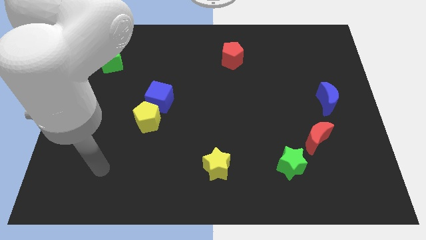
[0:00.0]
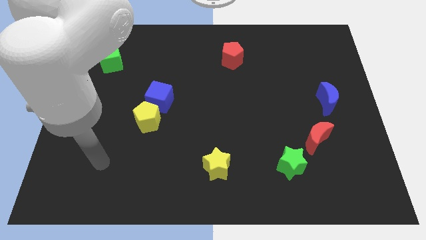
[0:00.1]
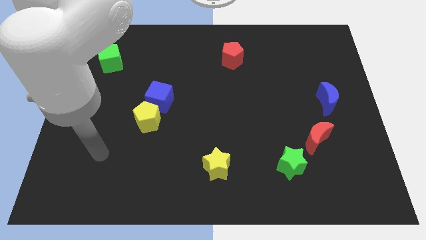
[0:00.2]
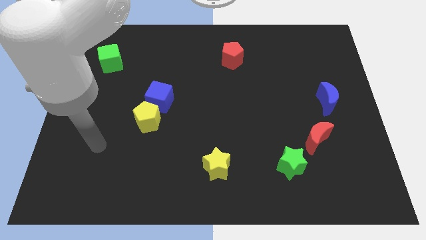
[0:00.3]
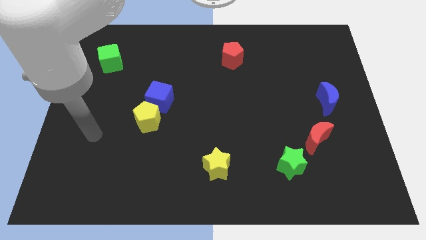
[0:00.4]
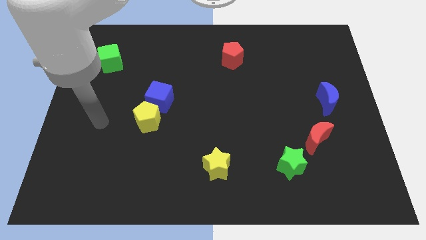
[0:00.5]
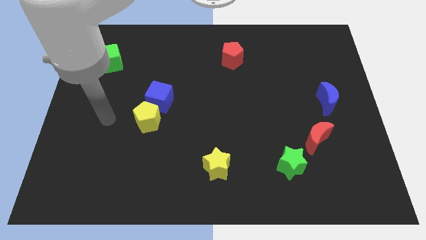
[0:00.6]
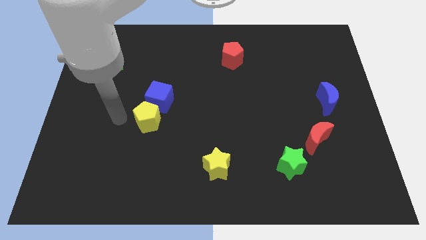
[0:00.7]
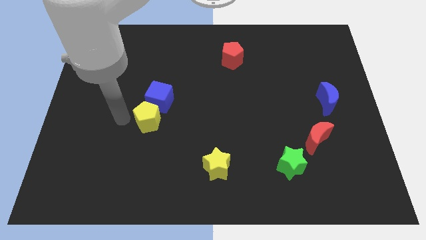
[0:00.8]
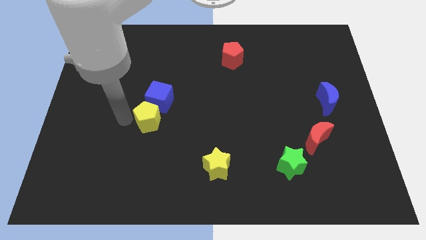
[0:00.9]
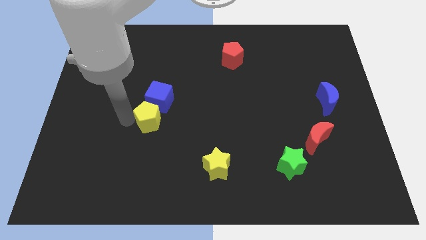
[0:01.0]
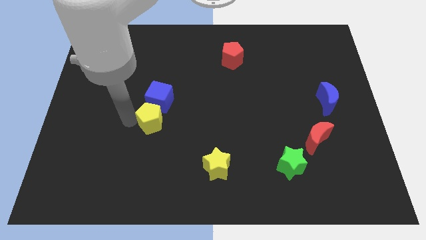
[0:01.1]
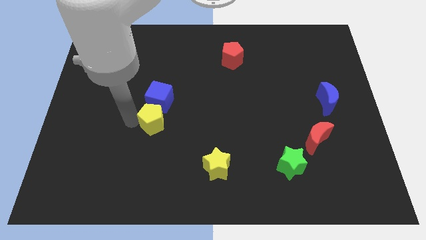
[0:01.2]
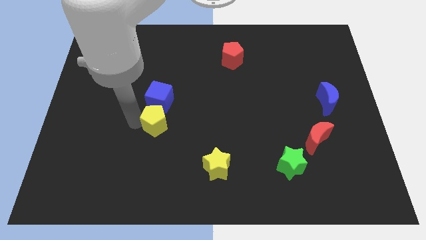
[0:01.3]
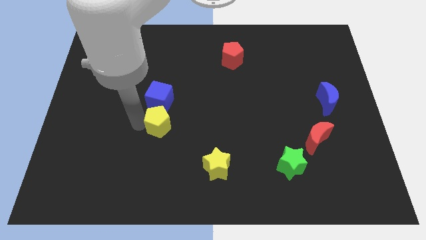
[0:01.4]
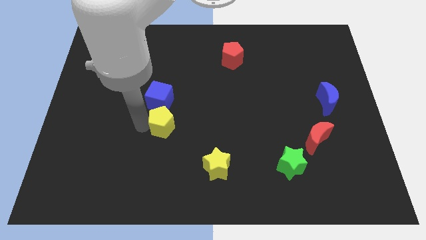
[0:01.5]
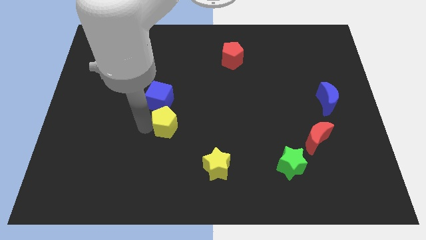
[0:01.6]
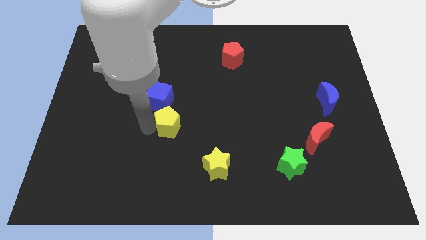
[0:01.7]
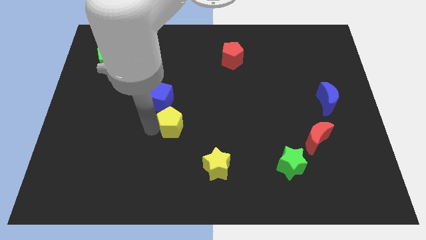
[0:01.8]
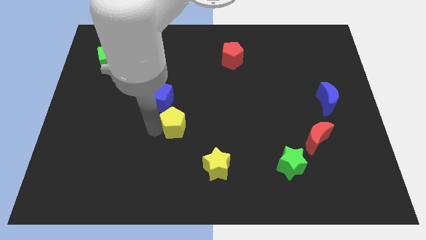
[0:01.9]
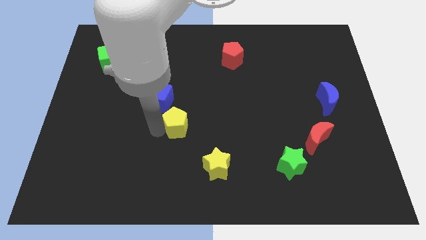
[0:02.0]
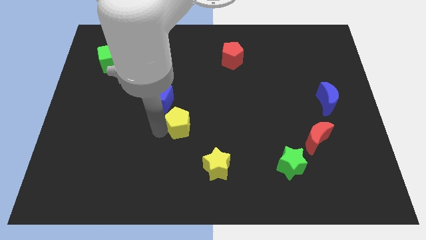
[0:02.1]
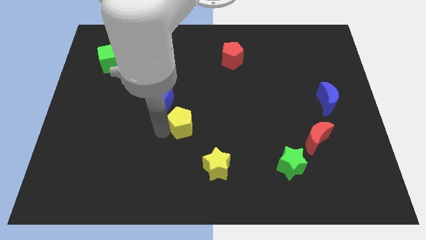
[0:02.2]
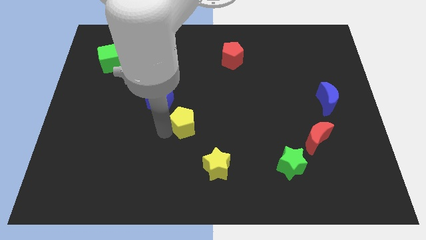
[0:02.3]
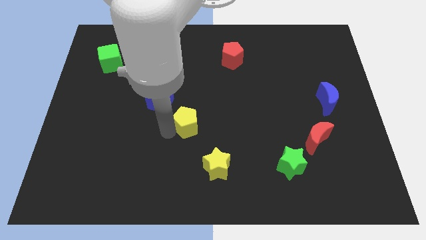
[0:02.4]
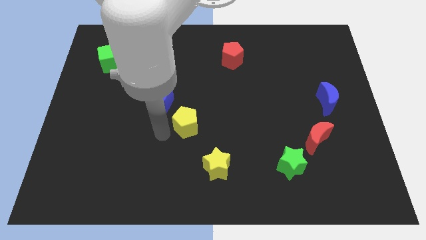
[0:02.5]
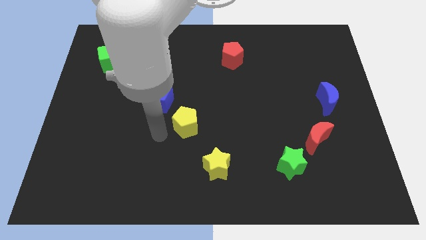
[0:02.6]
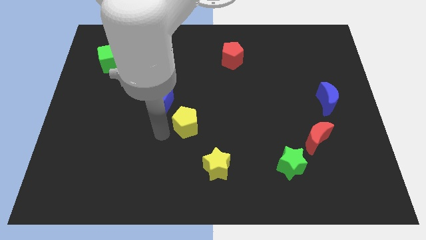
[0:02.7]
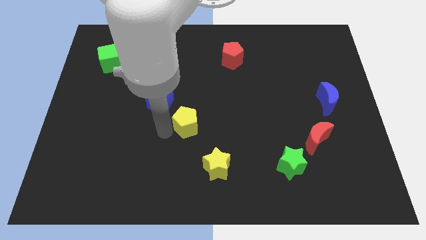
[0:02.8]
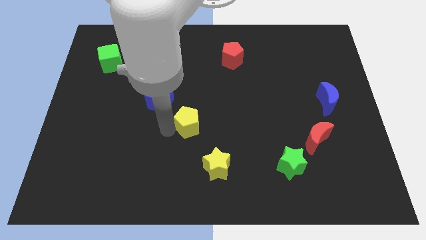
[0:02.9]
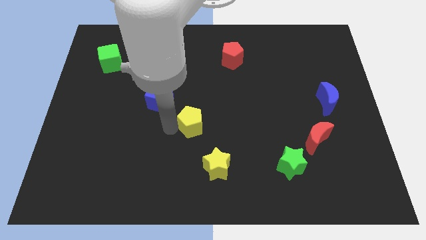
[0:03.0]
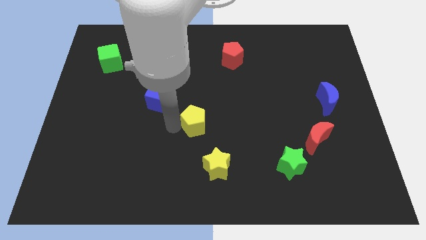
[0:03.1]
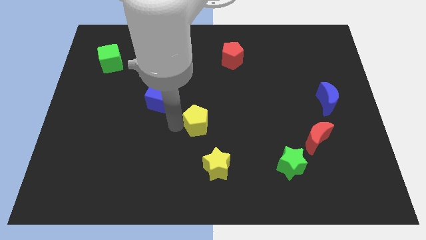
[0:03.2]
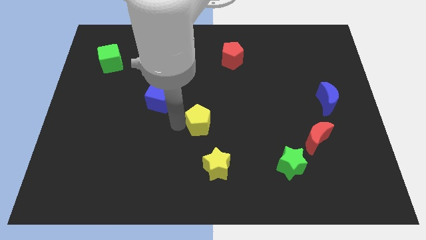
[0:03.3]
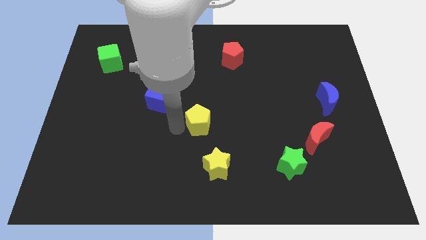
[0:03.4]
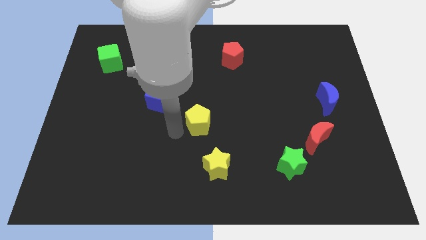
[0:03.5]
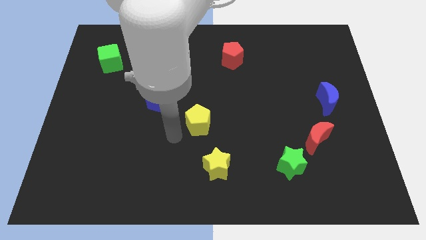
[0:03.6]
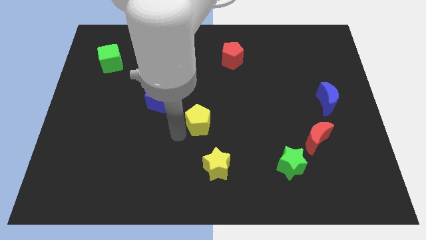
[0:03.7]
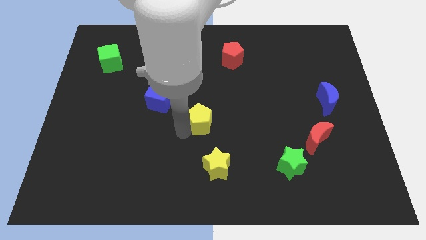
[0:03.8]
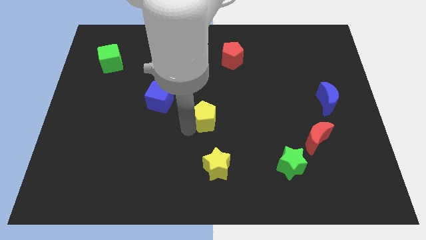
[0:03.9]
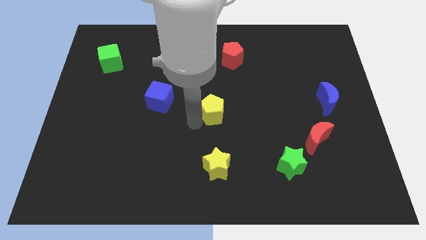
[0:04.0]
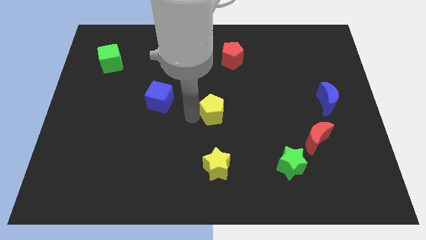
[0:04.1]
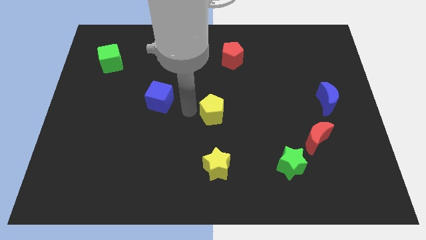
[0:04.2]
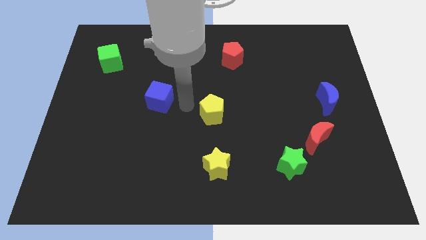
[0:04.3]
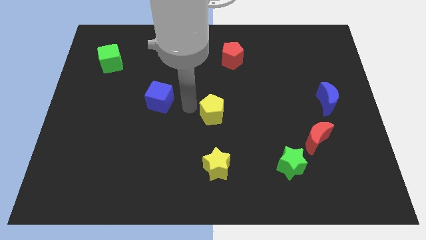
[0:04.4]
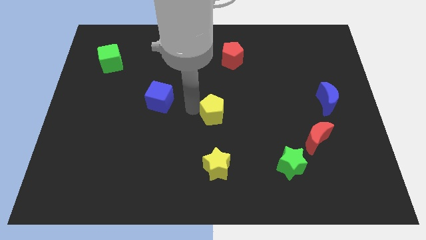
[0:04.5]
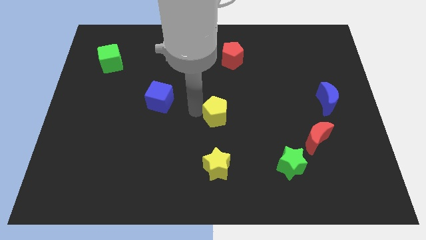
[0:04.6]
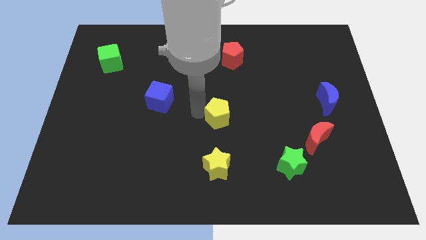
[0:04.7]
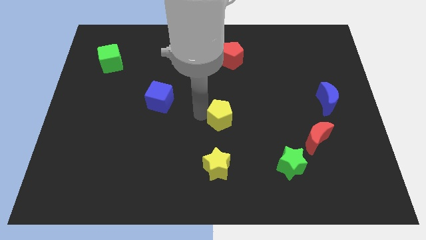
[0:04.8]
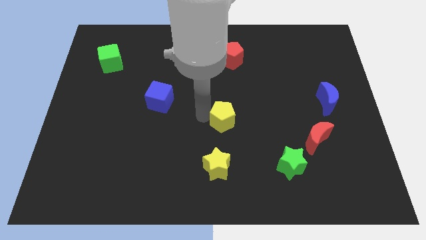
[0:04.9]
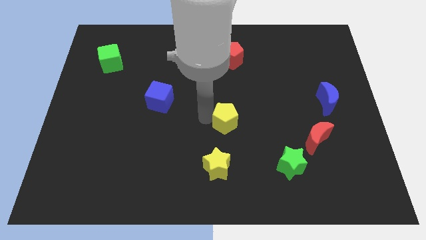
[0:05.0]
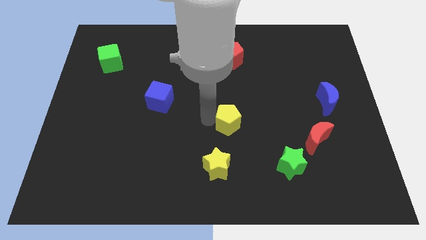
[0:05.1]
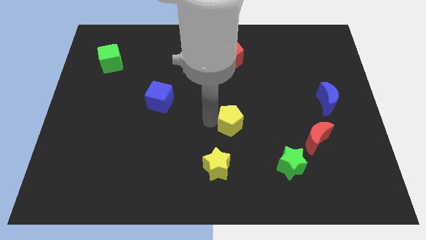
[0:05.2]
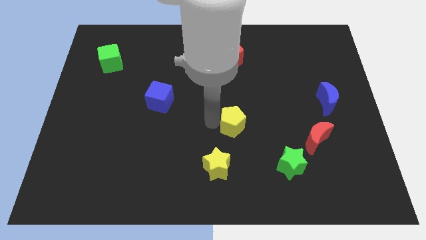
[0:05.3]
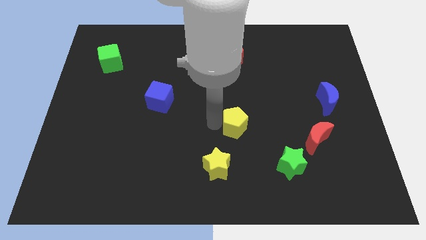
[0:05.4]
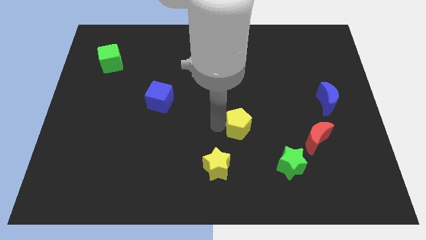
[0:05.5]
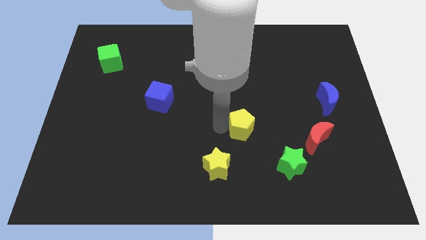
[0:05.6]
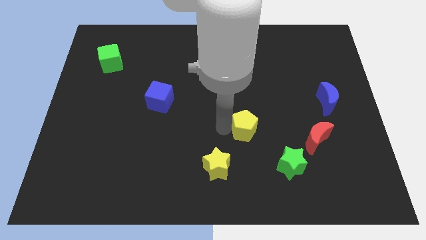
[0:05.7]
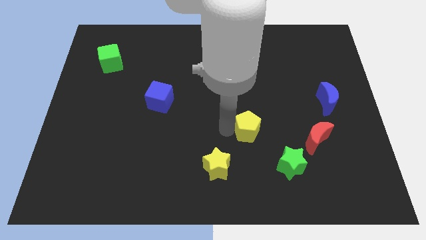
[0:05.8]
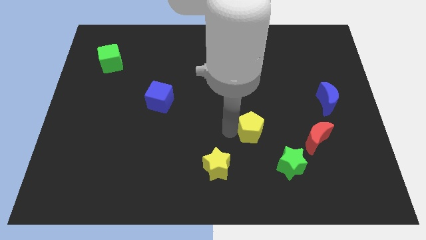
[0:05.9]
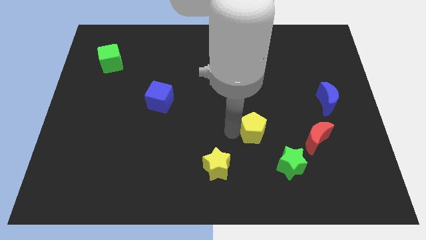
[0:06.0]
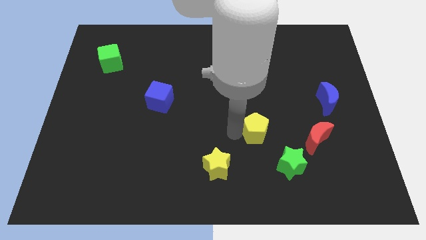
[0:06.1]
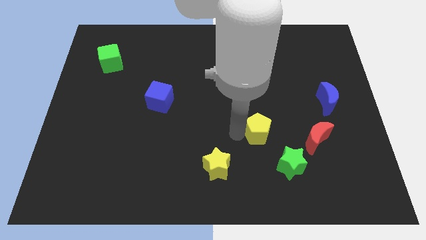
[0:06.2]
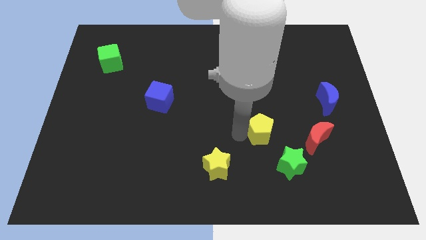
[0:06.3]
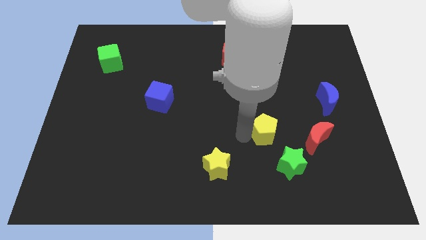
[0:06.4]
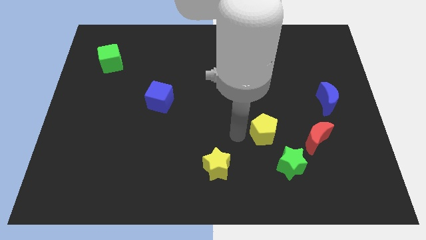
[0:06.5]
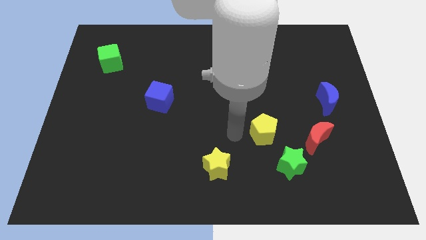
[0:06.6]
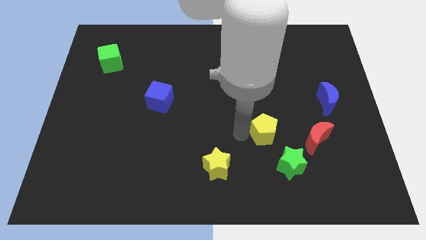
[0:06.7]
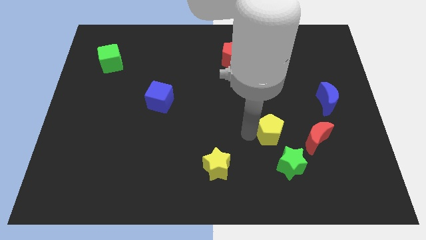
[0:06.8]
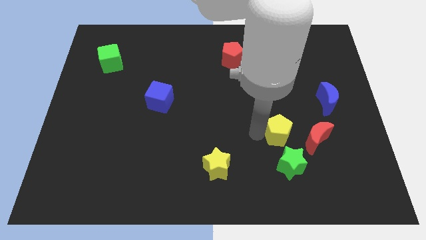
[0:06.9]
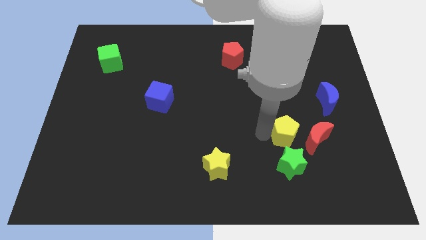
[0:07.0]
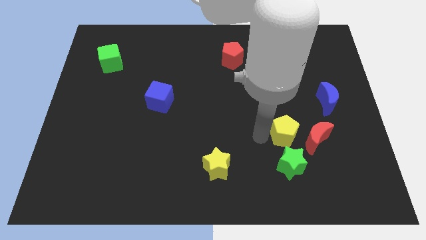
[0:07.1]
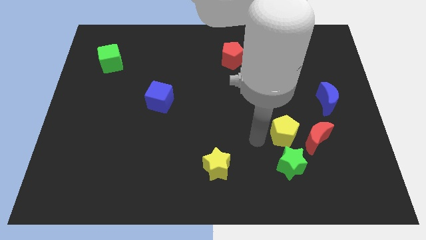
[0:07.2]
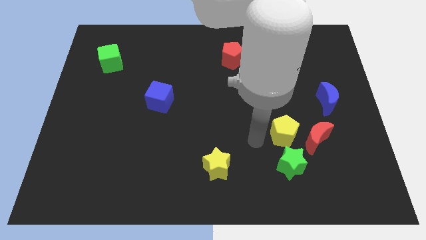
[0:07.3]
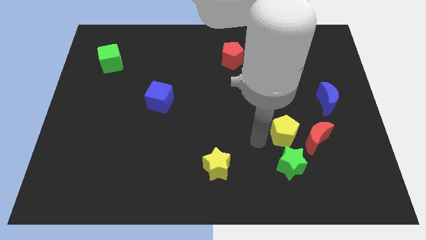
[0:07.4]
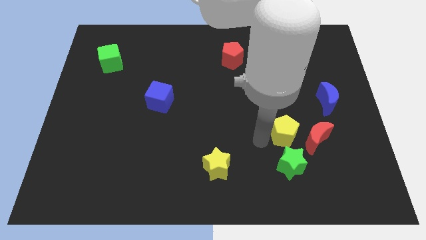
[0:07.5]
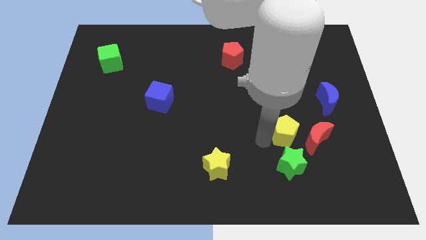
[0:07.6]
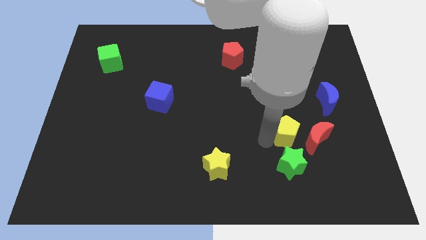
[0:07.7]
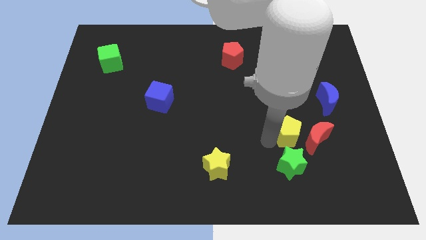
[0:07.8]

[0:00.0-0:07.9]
push the yellow pentagon next to the red moon
